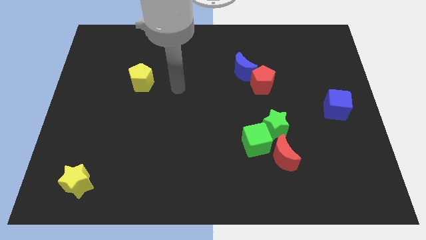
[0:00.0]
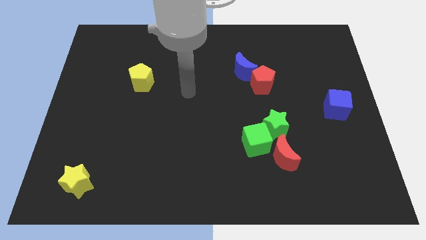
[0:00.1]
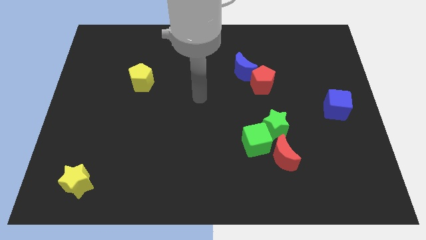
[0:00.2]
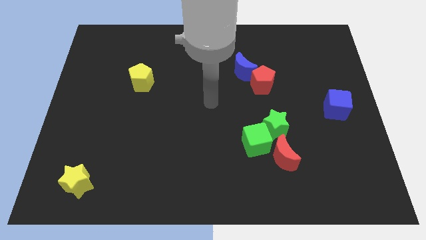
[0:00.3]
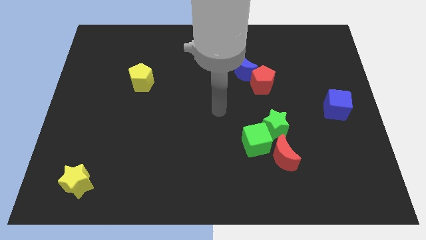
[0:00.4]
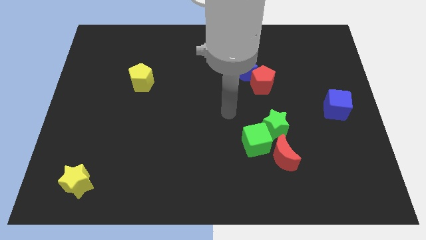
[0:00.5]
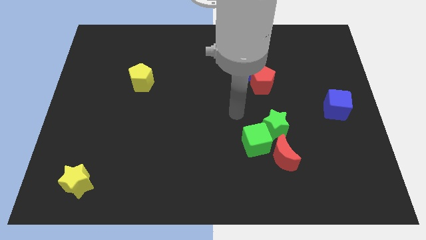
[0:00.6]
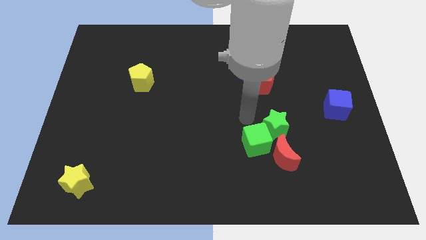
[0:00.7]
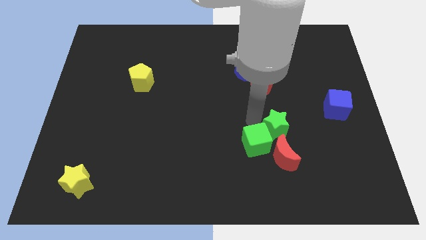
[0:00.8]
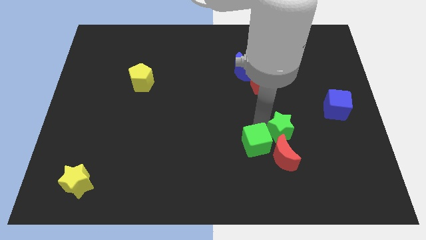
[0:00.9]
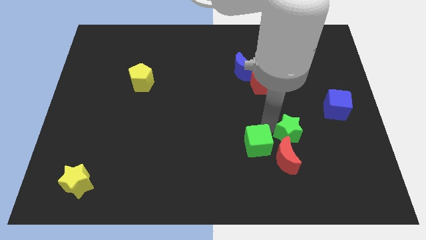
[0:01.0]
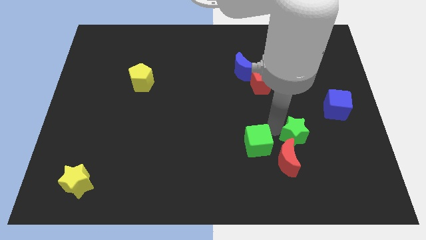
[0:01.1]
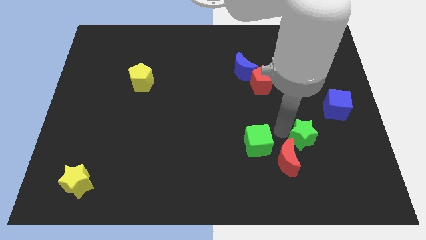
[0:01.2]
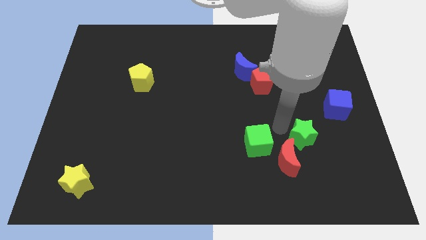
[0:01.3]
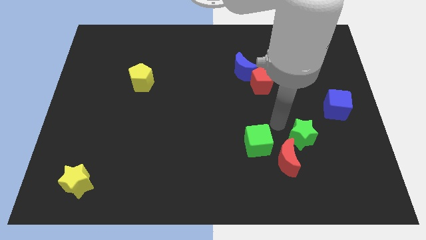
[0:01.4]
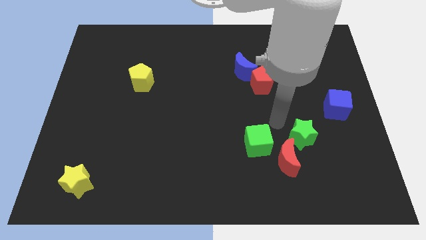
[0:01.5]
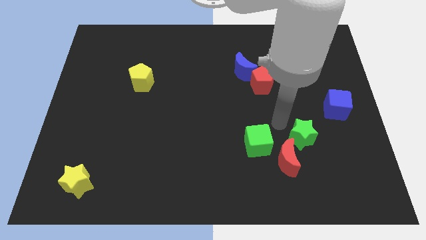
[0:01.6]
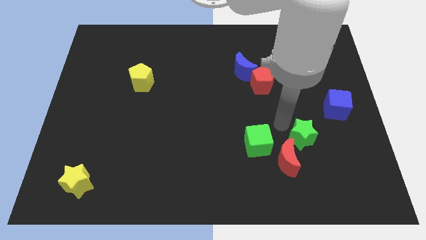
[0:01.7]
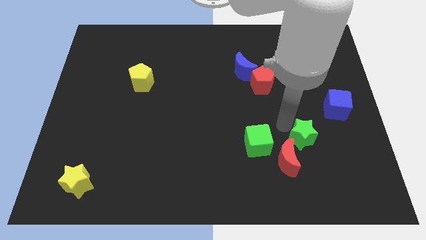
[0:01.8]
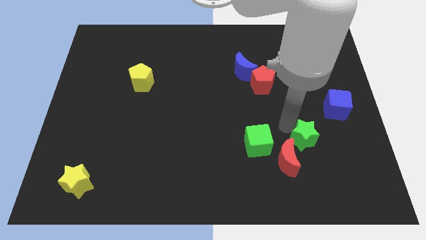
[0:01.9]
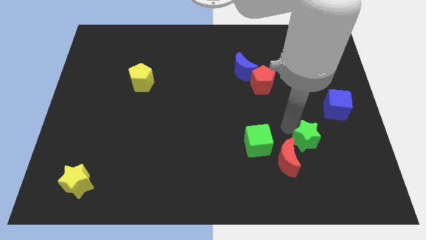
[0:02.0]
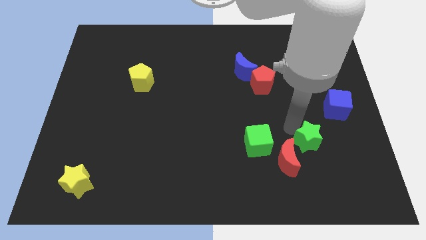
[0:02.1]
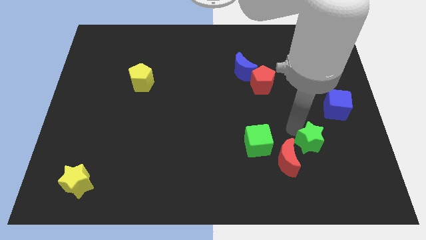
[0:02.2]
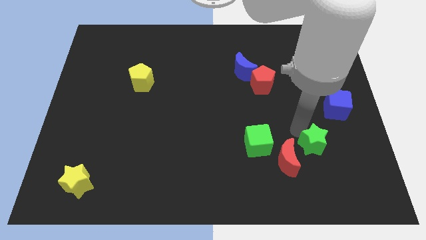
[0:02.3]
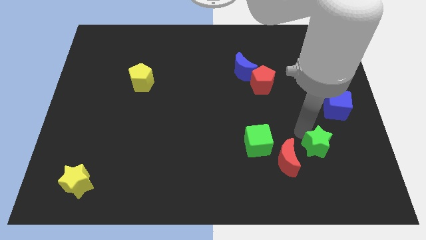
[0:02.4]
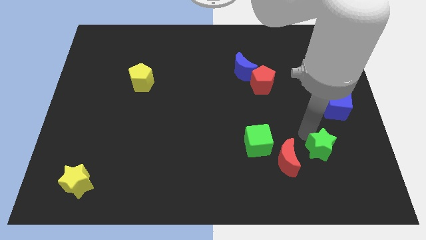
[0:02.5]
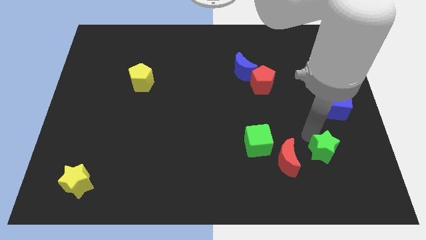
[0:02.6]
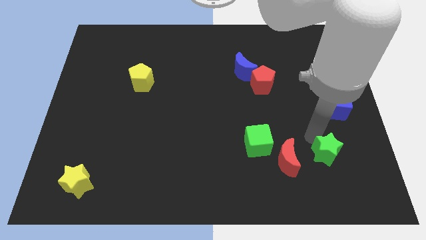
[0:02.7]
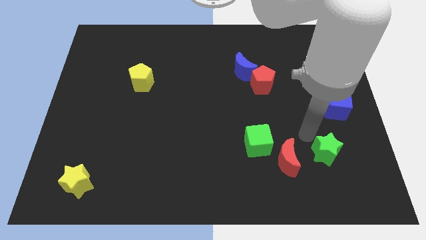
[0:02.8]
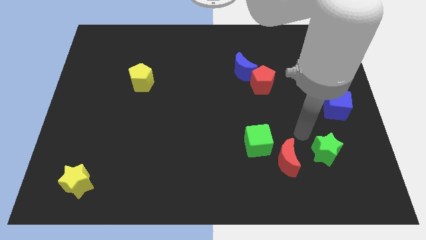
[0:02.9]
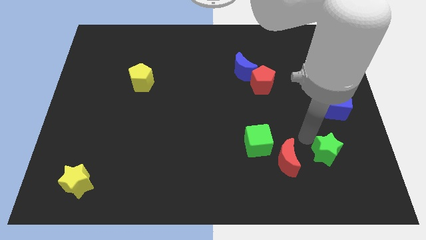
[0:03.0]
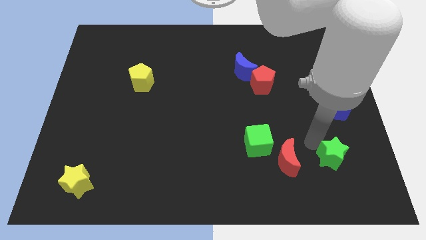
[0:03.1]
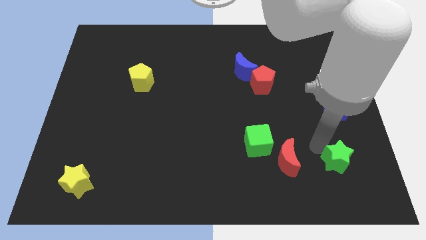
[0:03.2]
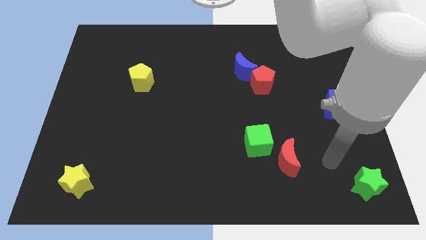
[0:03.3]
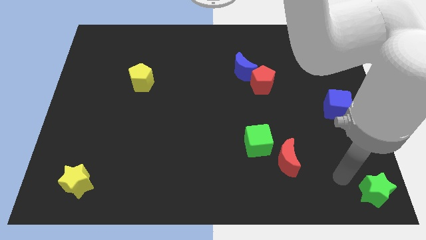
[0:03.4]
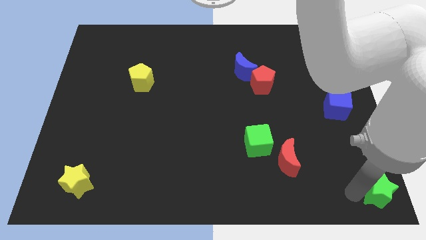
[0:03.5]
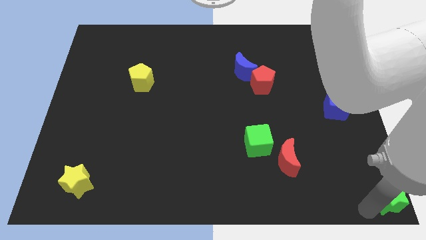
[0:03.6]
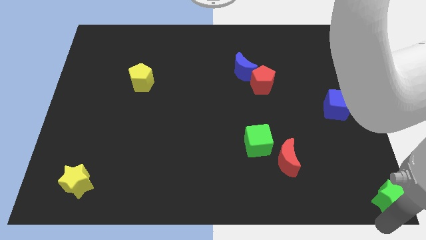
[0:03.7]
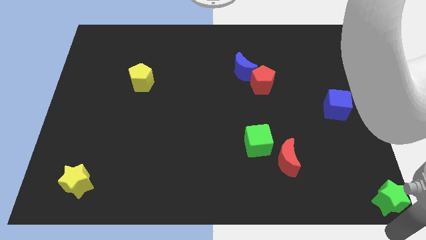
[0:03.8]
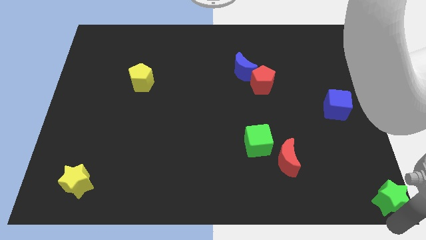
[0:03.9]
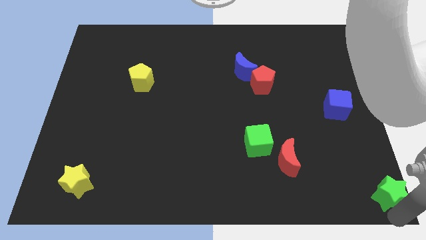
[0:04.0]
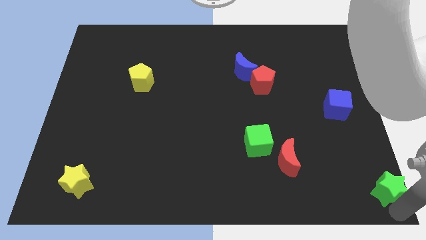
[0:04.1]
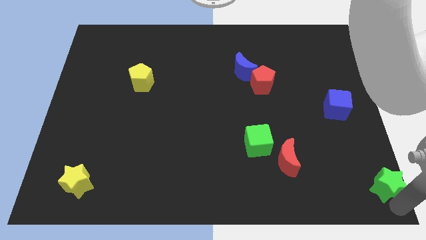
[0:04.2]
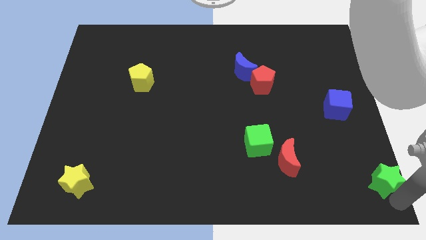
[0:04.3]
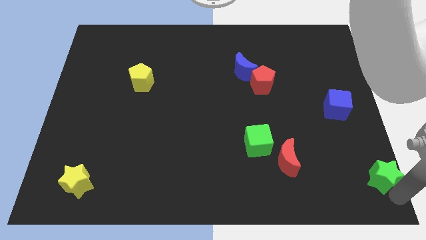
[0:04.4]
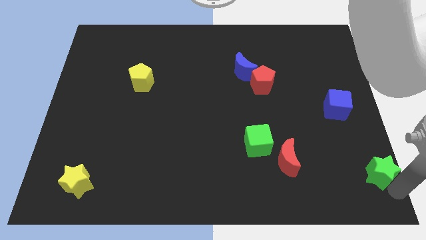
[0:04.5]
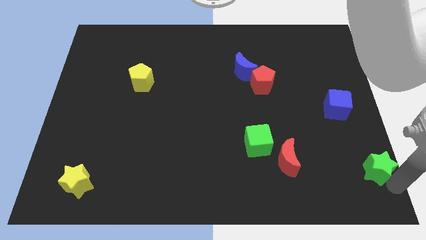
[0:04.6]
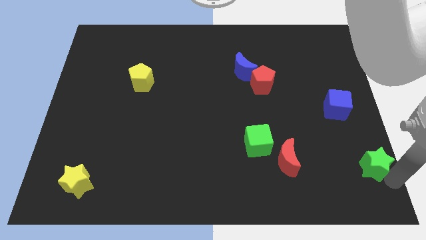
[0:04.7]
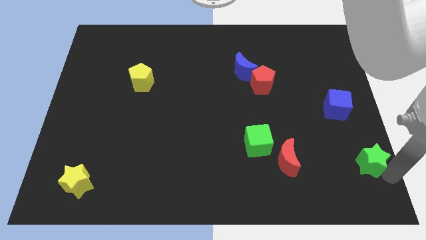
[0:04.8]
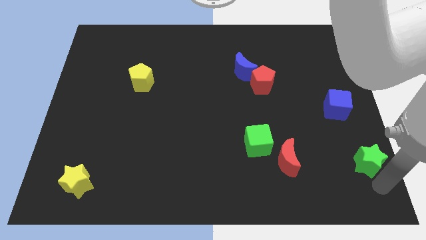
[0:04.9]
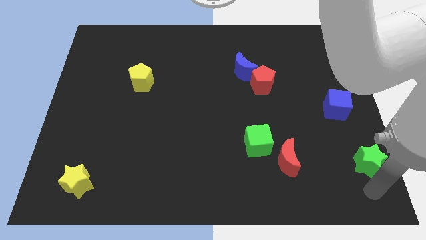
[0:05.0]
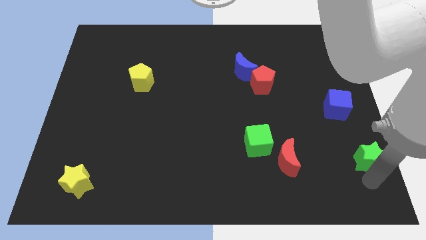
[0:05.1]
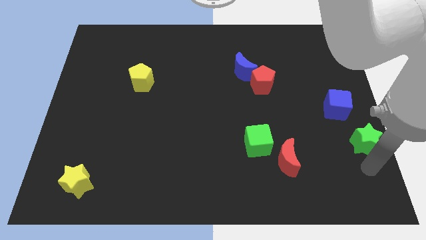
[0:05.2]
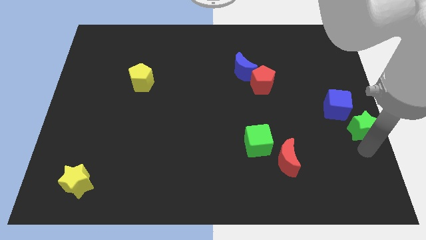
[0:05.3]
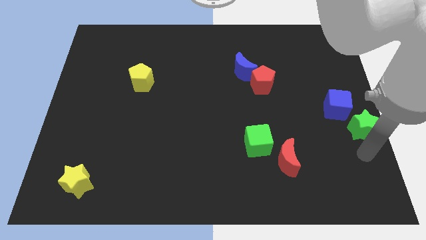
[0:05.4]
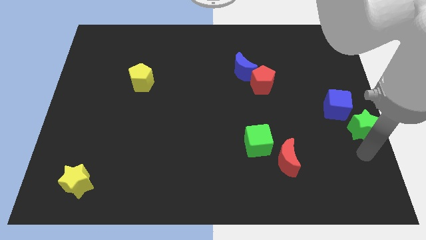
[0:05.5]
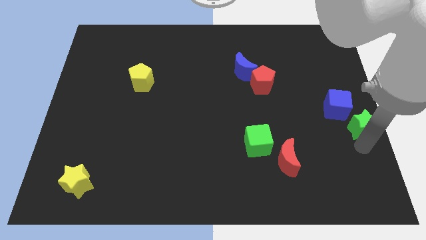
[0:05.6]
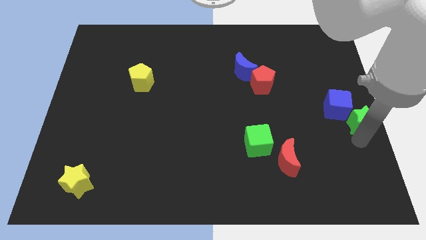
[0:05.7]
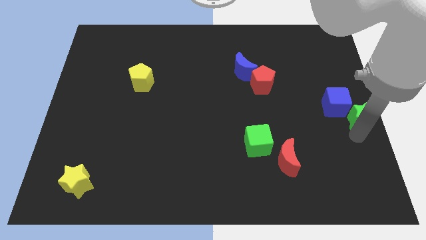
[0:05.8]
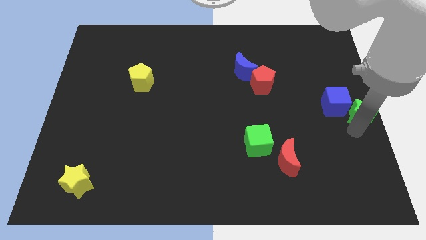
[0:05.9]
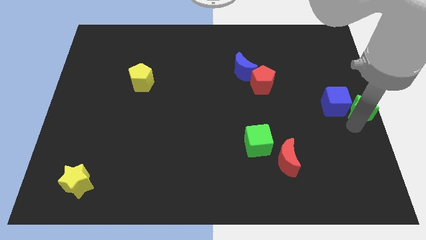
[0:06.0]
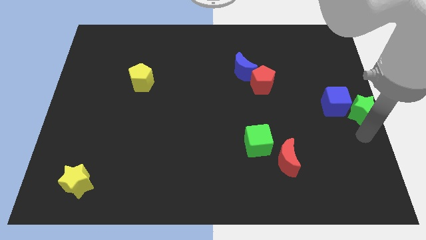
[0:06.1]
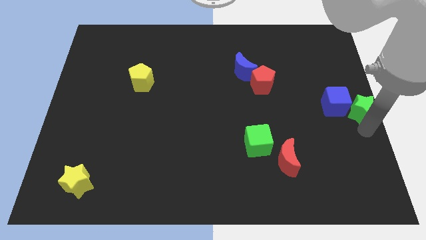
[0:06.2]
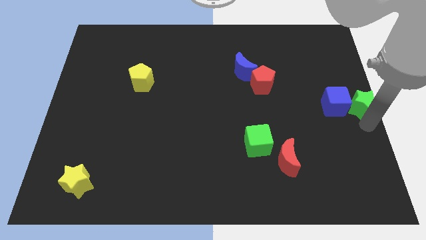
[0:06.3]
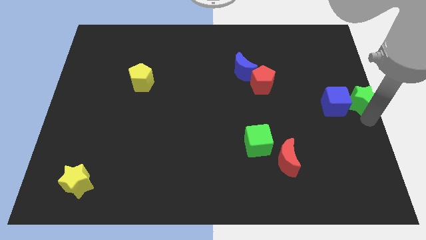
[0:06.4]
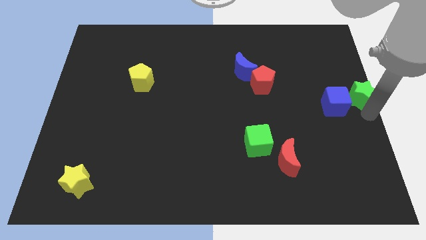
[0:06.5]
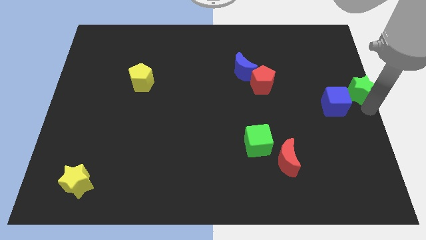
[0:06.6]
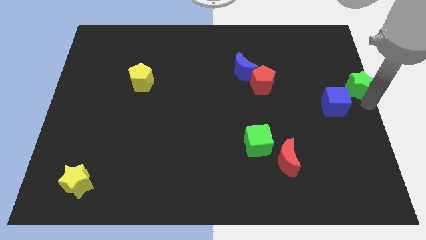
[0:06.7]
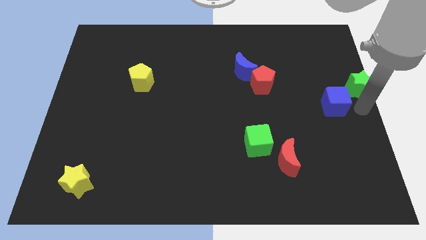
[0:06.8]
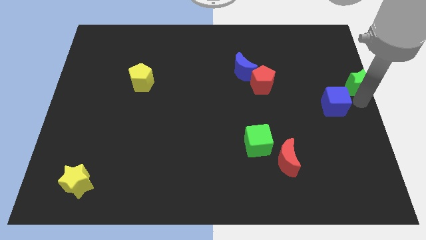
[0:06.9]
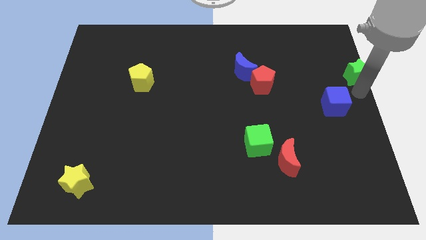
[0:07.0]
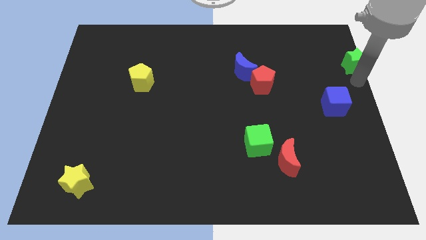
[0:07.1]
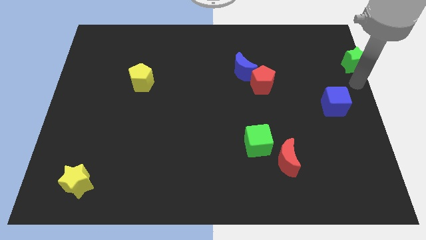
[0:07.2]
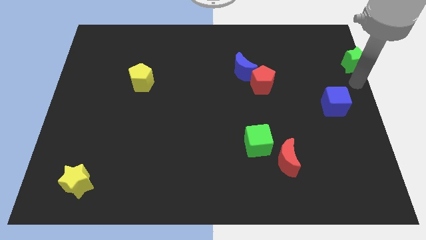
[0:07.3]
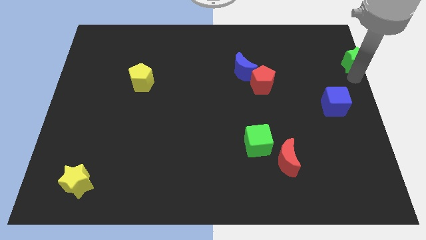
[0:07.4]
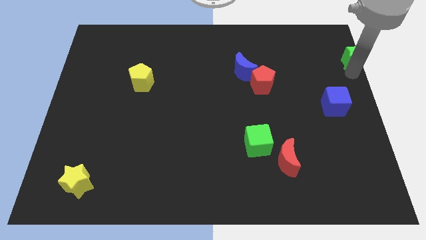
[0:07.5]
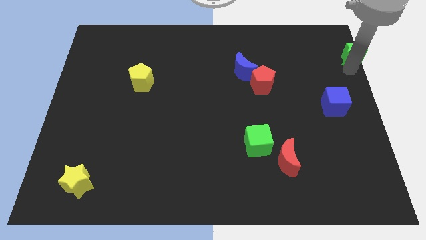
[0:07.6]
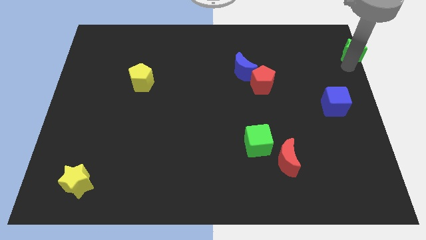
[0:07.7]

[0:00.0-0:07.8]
slide the green star to the upper right corner
